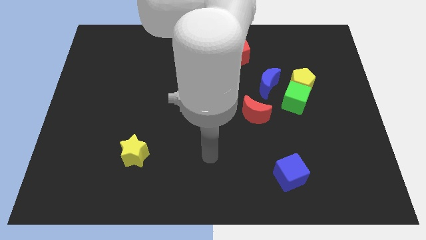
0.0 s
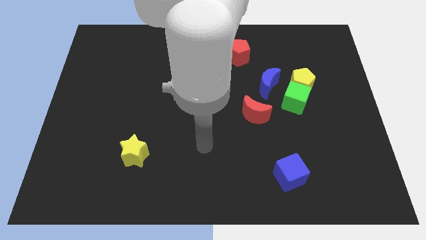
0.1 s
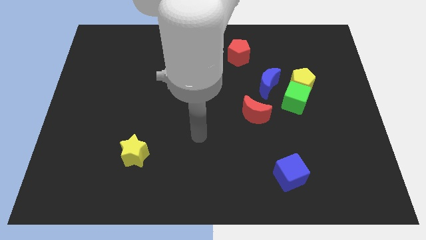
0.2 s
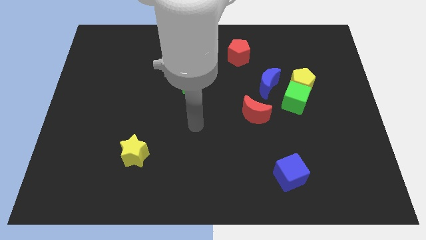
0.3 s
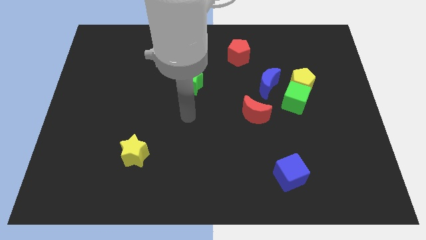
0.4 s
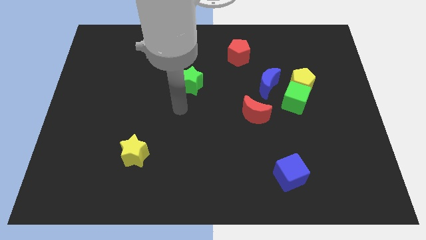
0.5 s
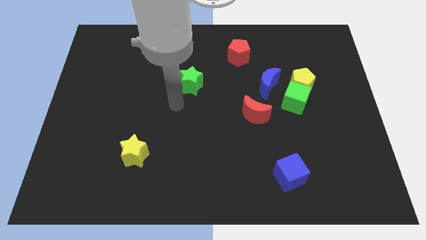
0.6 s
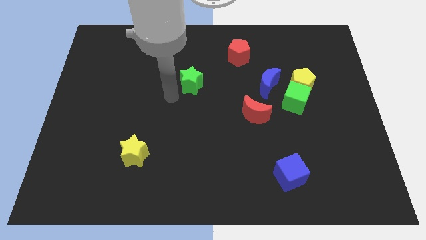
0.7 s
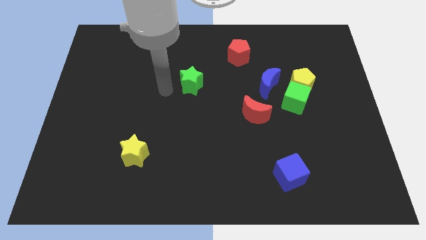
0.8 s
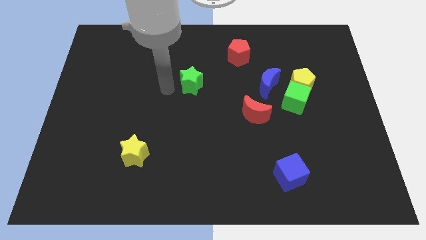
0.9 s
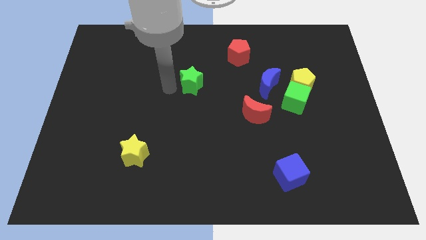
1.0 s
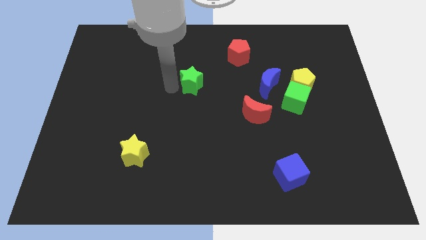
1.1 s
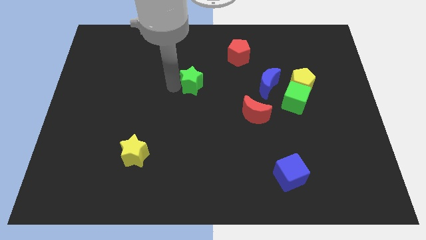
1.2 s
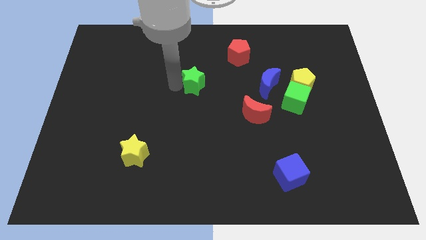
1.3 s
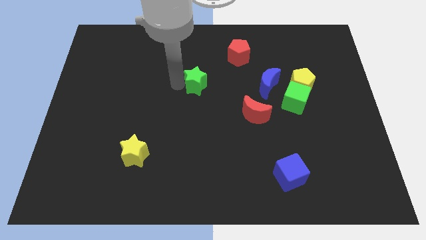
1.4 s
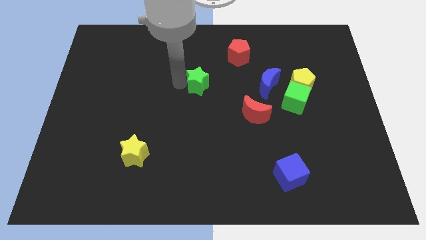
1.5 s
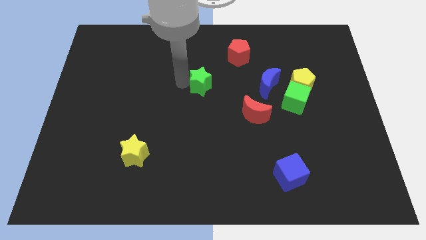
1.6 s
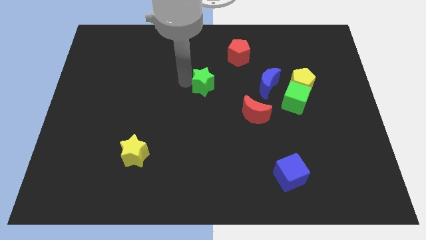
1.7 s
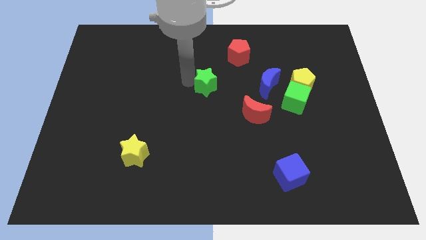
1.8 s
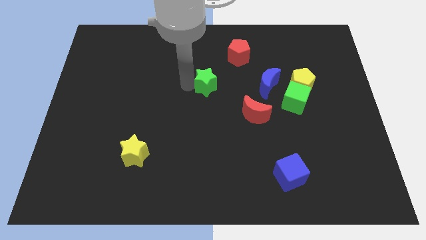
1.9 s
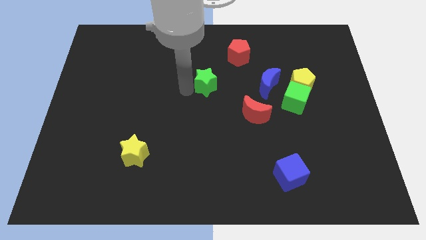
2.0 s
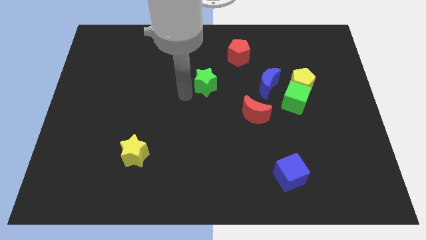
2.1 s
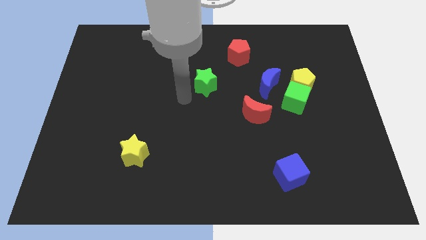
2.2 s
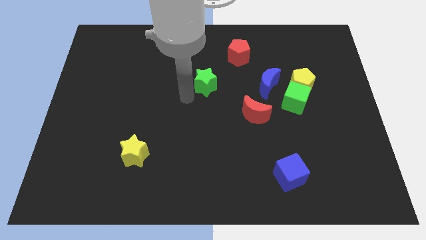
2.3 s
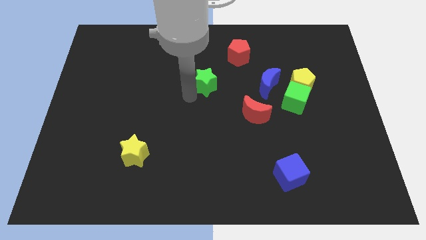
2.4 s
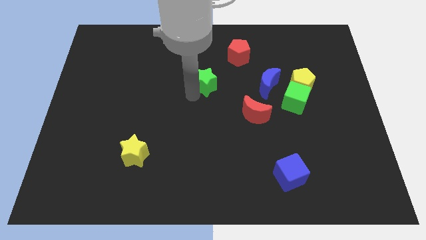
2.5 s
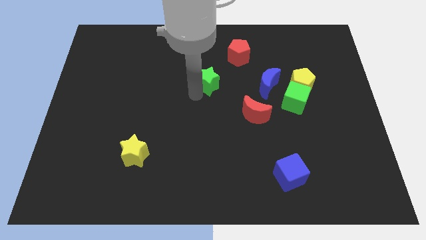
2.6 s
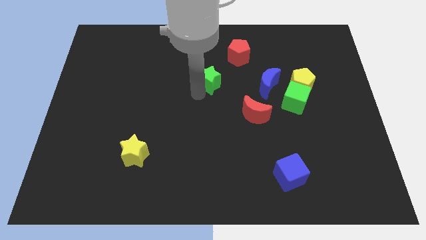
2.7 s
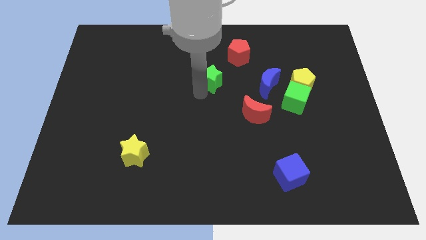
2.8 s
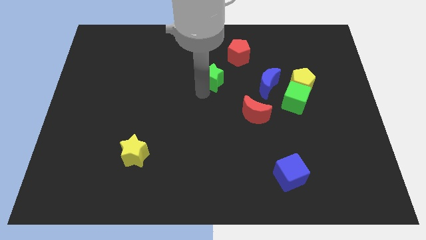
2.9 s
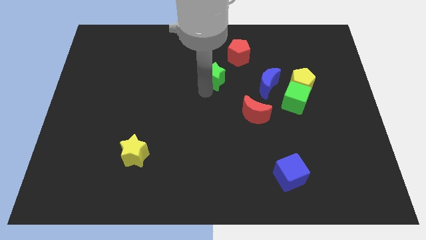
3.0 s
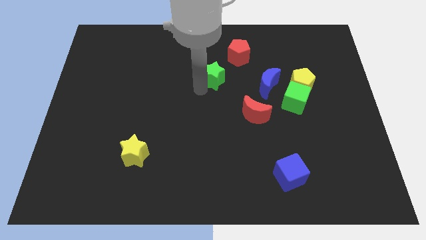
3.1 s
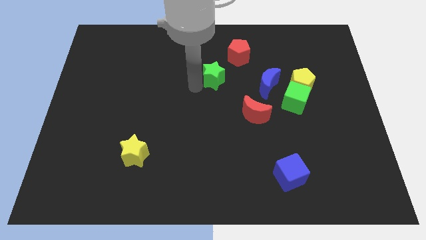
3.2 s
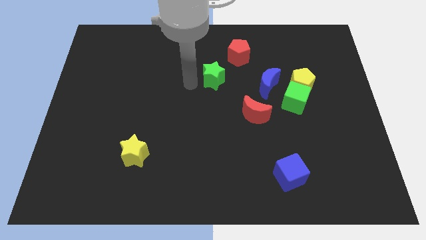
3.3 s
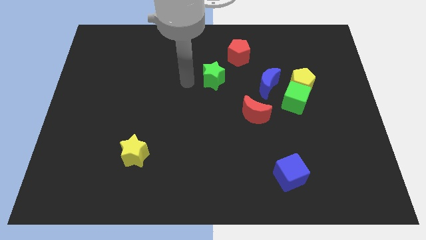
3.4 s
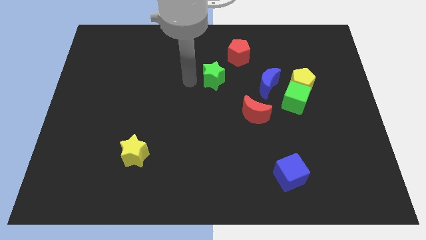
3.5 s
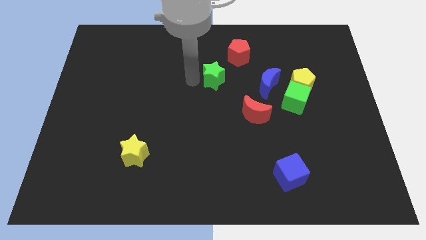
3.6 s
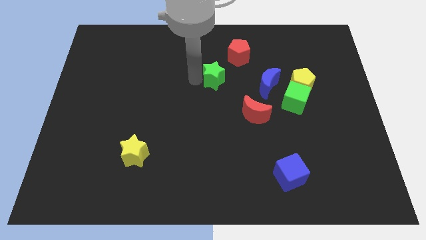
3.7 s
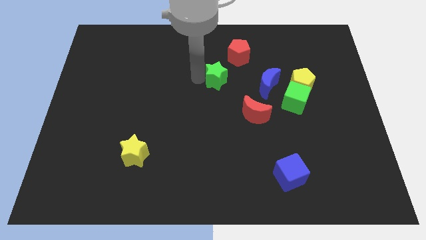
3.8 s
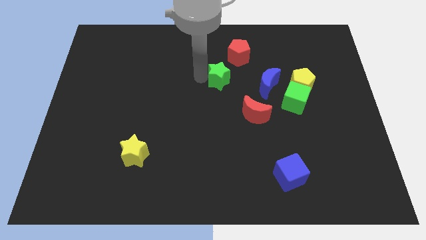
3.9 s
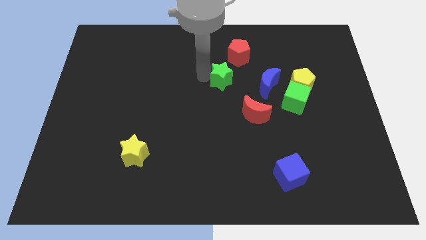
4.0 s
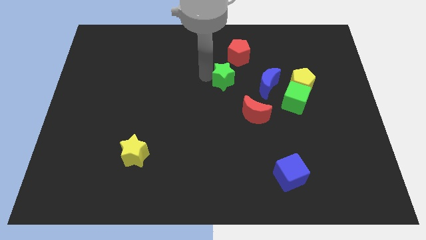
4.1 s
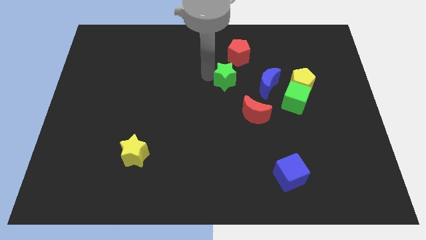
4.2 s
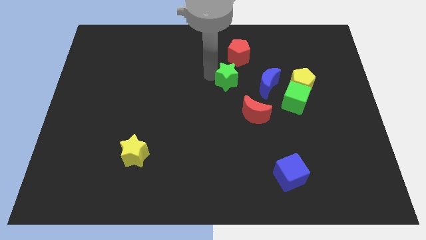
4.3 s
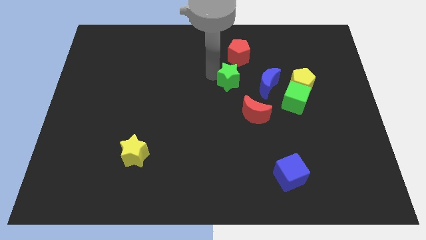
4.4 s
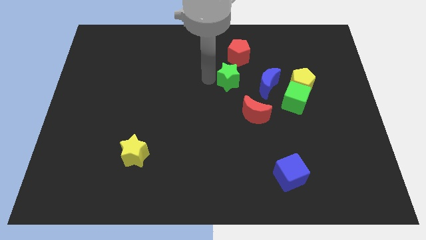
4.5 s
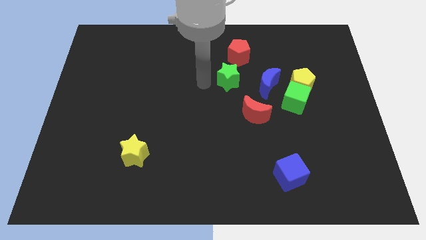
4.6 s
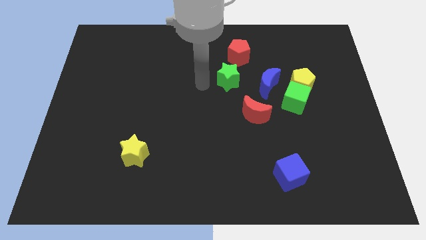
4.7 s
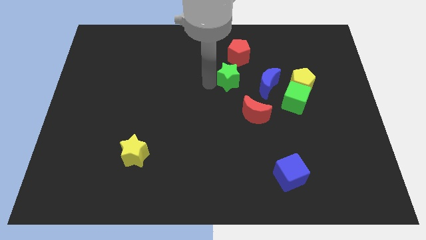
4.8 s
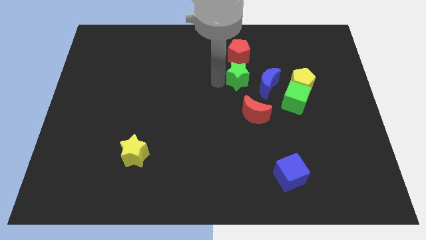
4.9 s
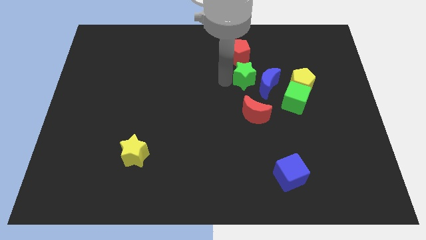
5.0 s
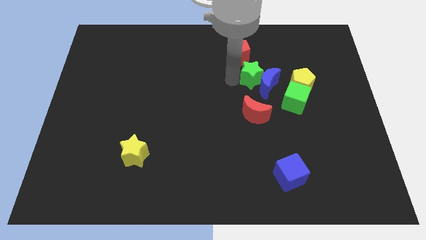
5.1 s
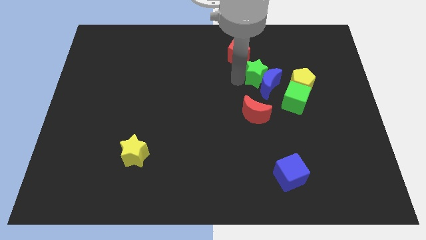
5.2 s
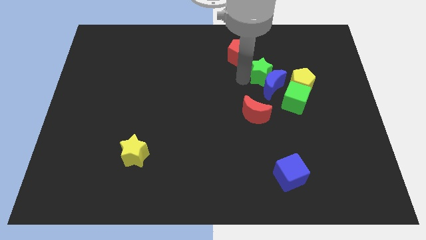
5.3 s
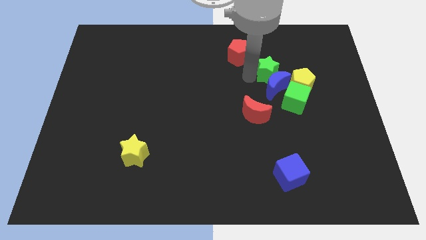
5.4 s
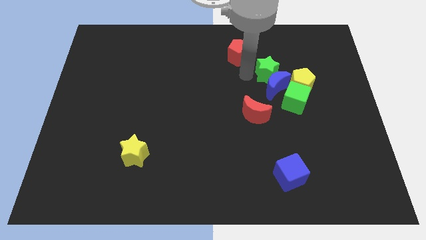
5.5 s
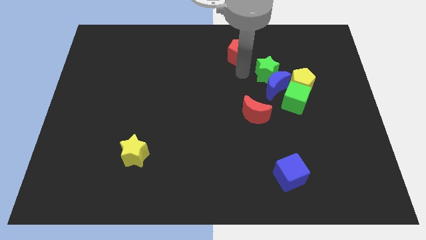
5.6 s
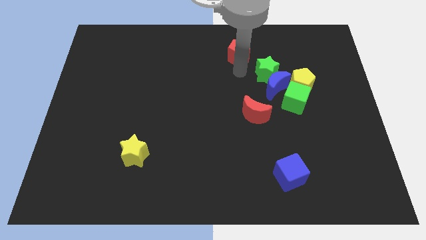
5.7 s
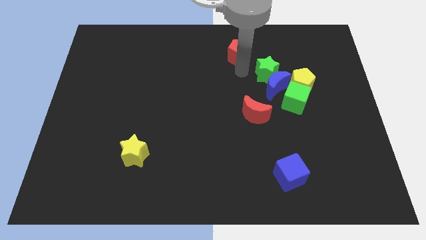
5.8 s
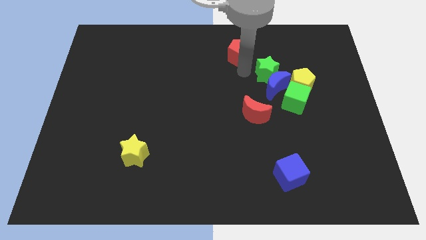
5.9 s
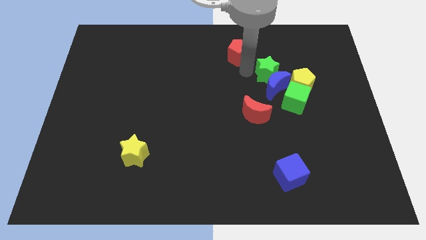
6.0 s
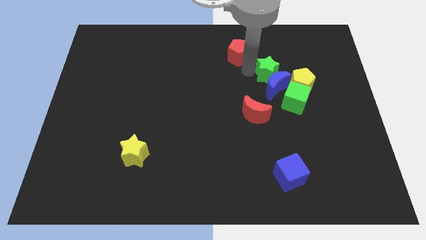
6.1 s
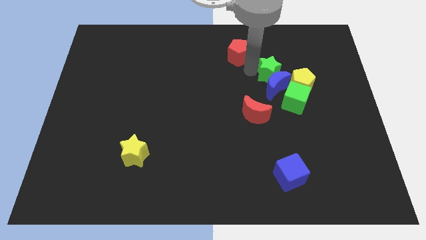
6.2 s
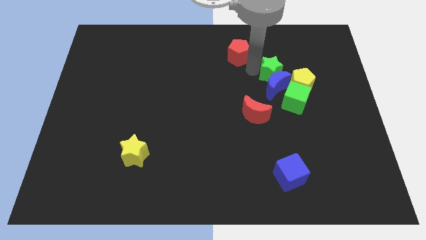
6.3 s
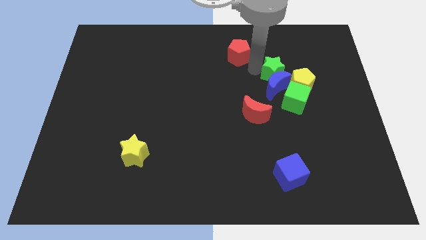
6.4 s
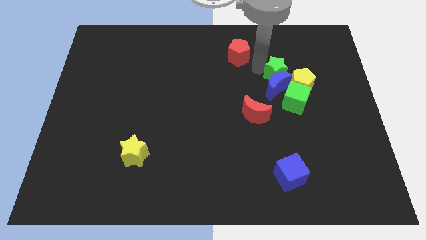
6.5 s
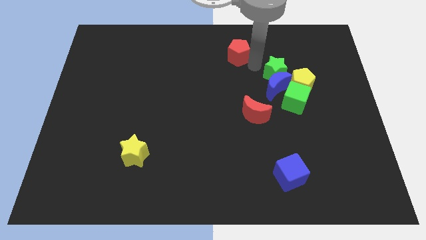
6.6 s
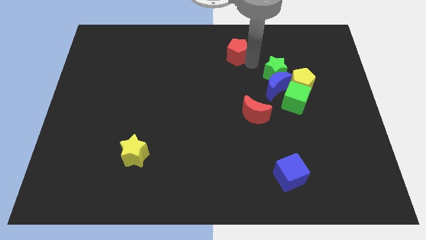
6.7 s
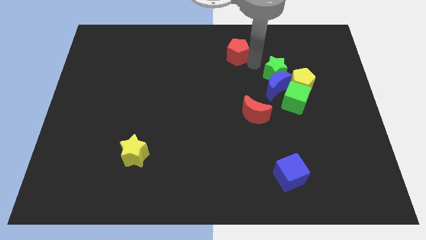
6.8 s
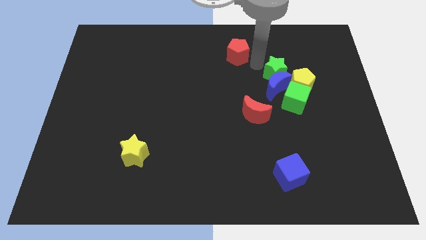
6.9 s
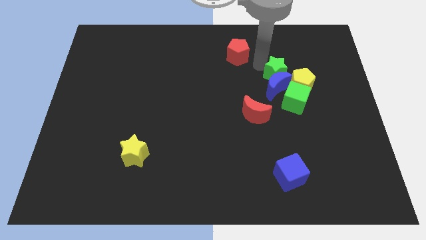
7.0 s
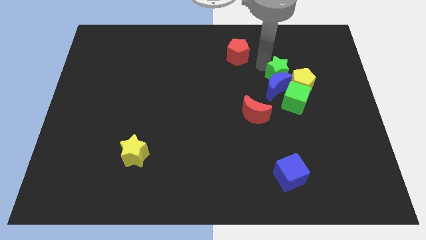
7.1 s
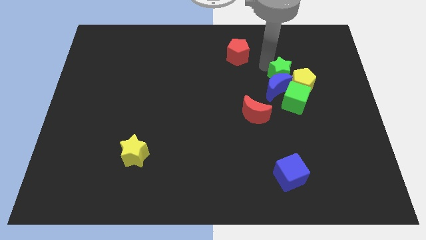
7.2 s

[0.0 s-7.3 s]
put the green star next to the yellow pentagon
